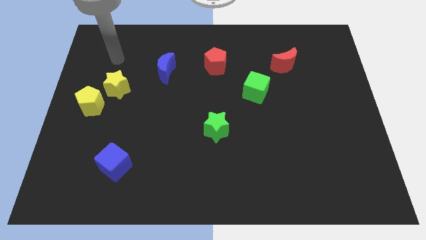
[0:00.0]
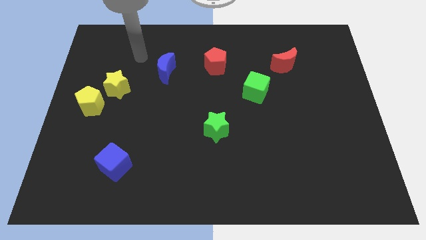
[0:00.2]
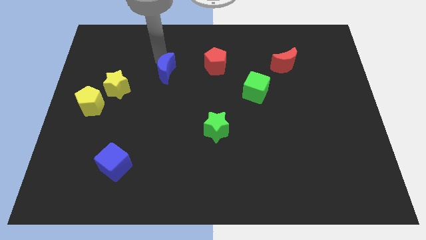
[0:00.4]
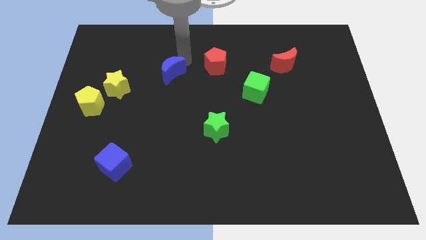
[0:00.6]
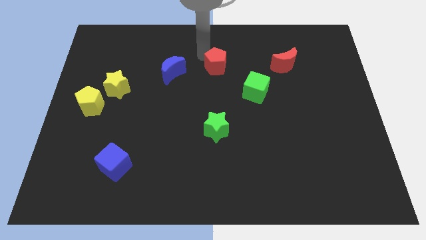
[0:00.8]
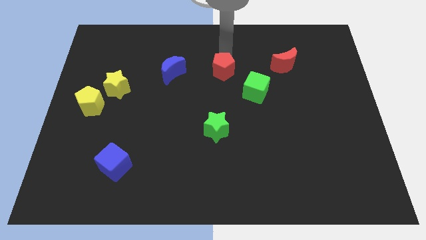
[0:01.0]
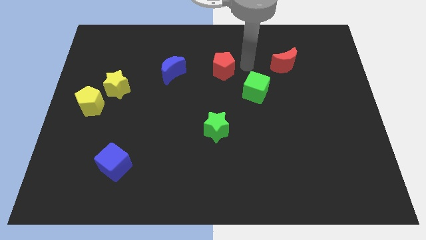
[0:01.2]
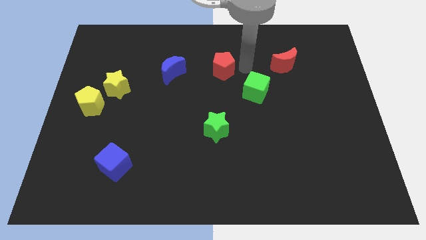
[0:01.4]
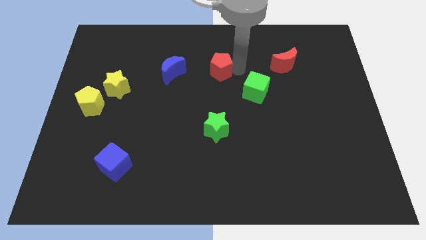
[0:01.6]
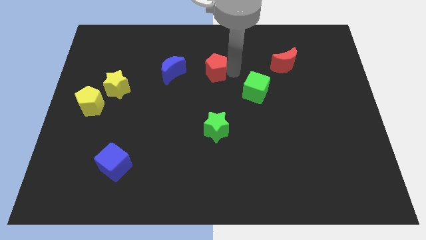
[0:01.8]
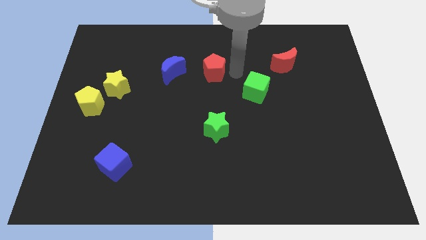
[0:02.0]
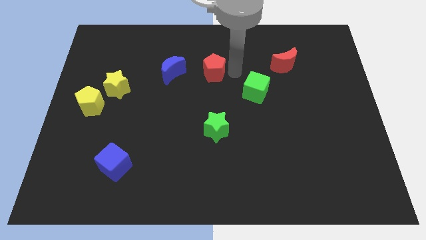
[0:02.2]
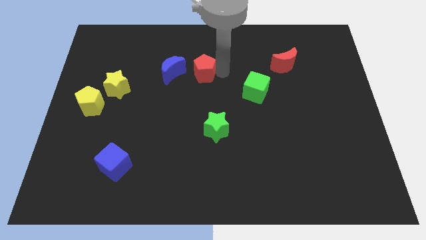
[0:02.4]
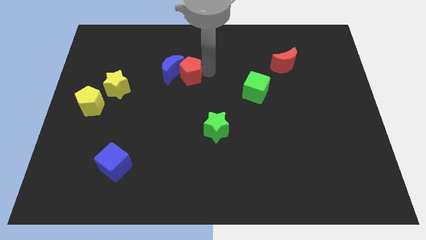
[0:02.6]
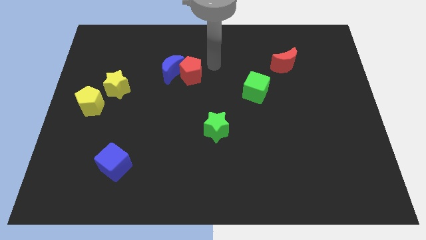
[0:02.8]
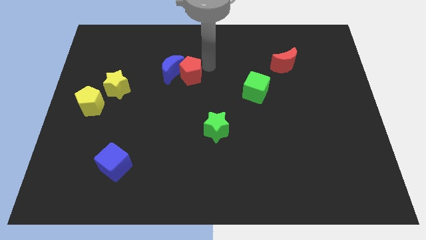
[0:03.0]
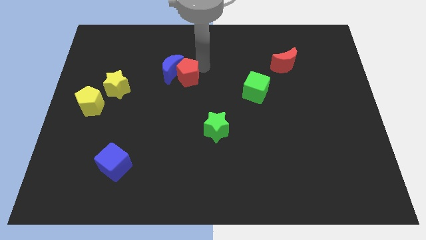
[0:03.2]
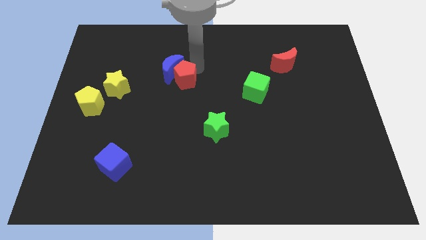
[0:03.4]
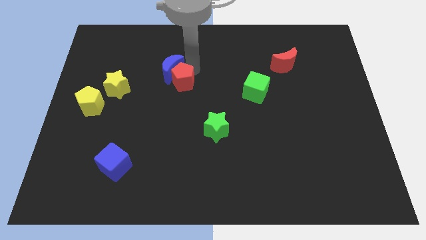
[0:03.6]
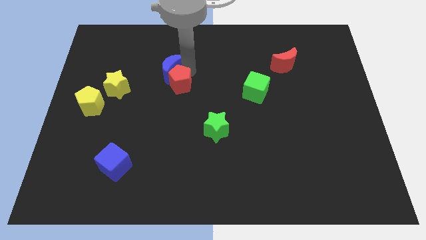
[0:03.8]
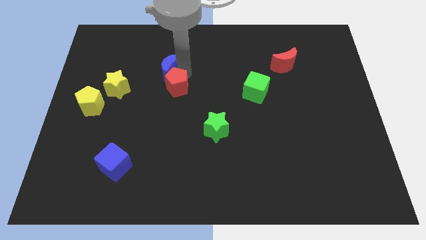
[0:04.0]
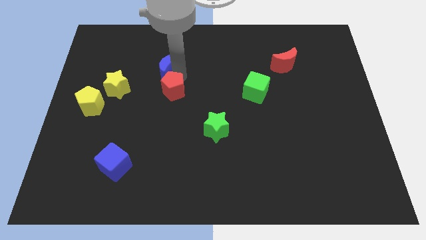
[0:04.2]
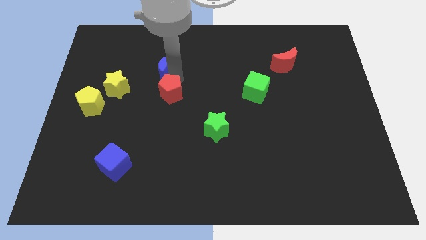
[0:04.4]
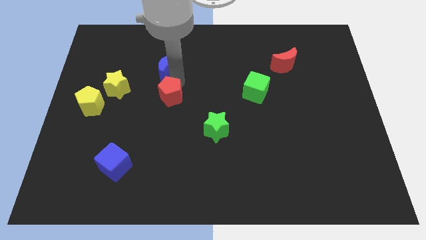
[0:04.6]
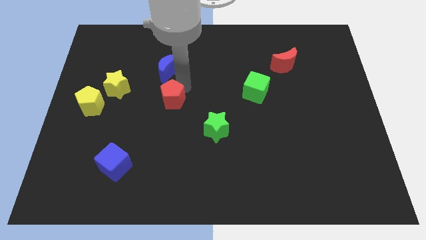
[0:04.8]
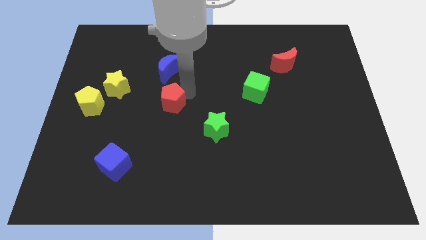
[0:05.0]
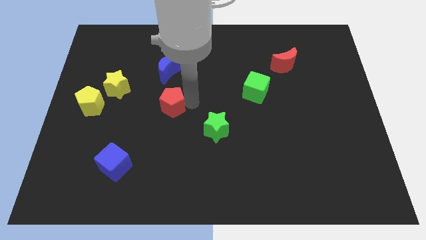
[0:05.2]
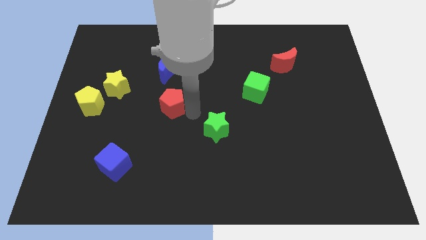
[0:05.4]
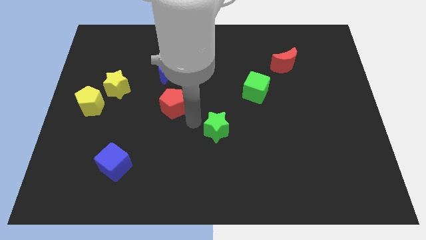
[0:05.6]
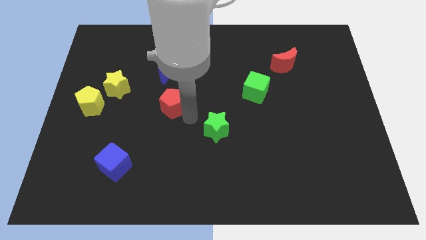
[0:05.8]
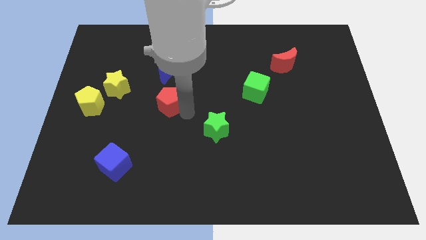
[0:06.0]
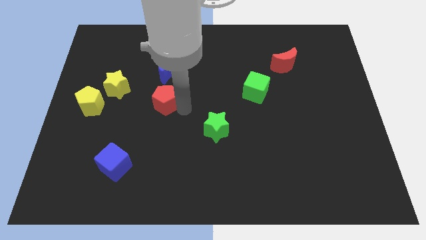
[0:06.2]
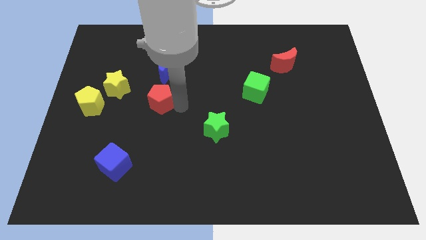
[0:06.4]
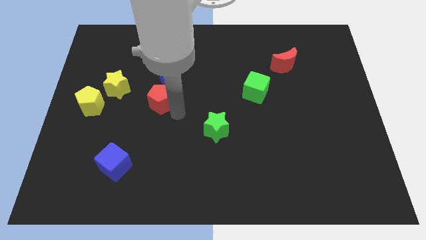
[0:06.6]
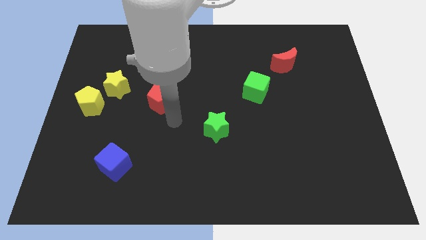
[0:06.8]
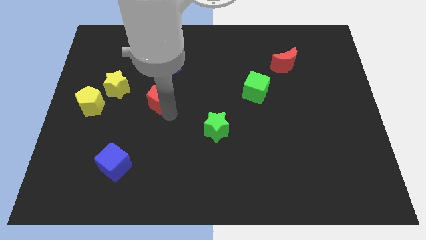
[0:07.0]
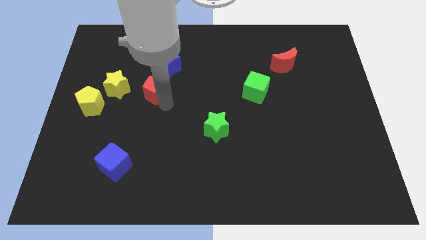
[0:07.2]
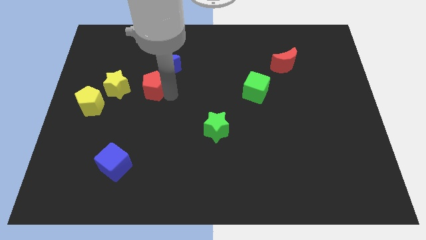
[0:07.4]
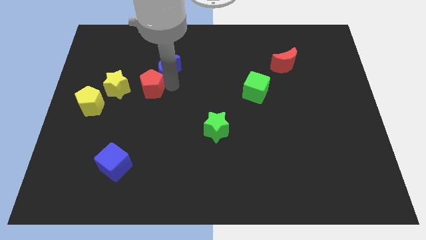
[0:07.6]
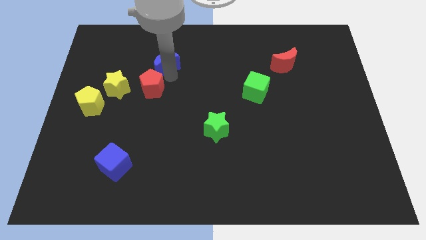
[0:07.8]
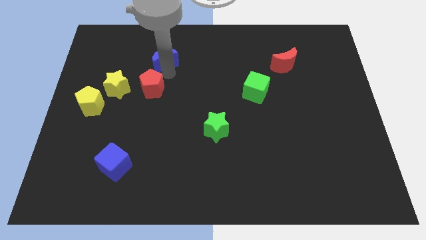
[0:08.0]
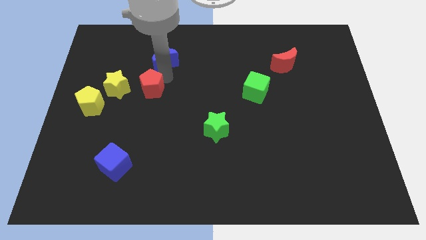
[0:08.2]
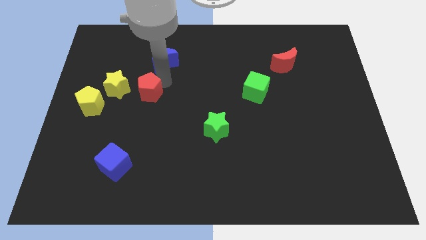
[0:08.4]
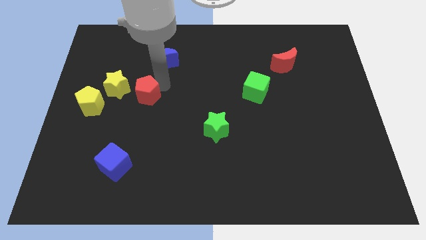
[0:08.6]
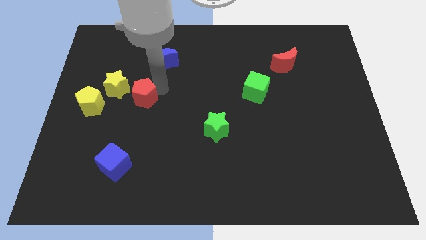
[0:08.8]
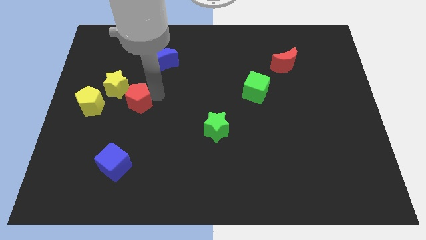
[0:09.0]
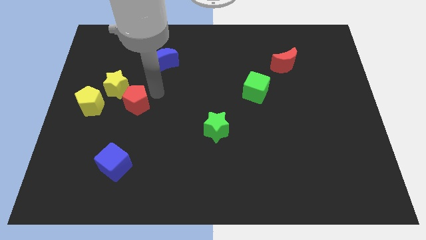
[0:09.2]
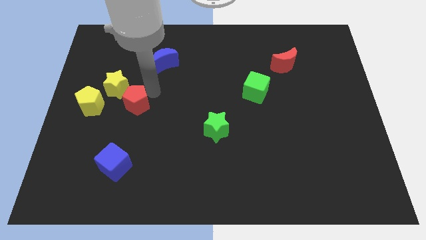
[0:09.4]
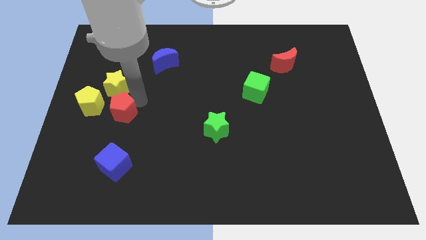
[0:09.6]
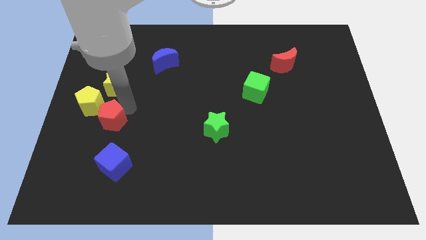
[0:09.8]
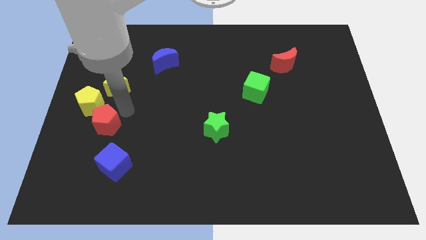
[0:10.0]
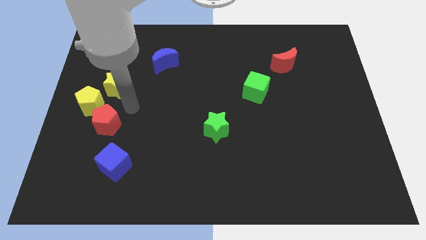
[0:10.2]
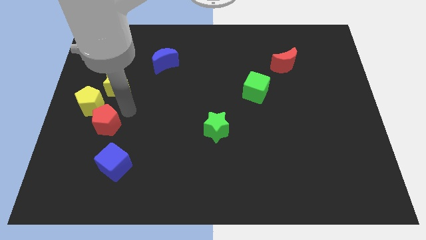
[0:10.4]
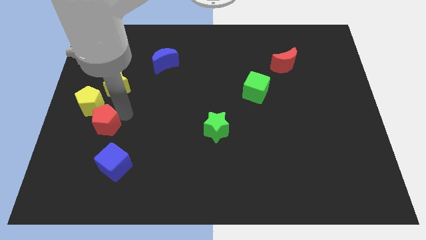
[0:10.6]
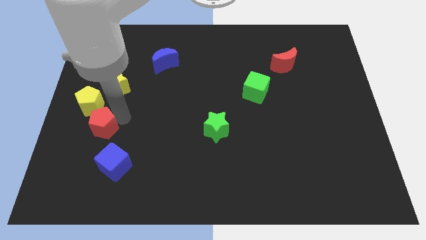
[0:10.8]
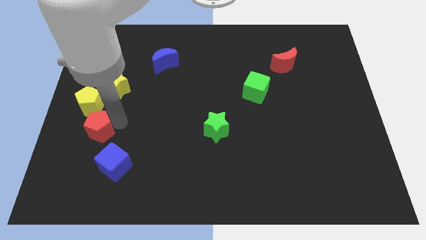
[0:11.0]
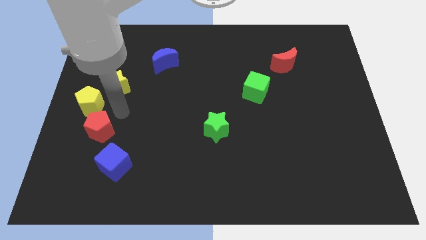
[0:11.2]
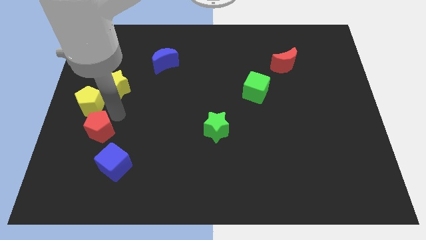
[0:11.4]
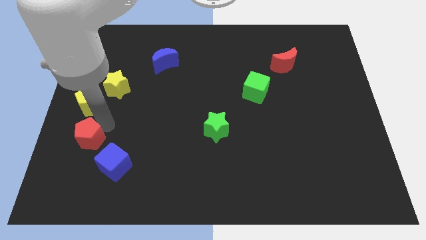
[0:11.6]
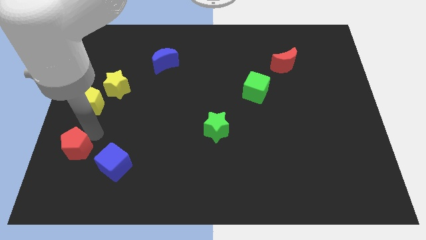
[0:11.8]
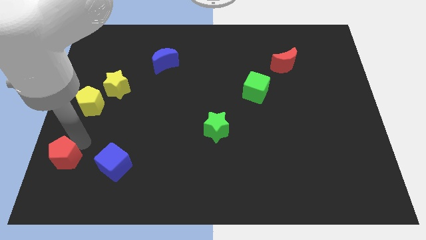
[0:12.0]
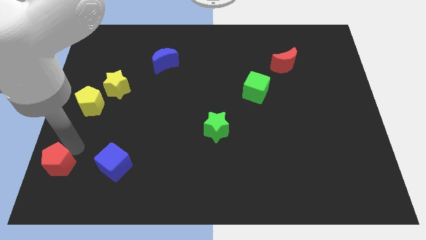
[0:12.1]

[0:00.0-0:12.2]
push the red pentagon to the bottom left of the board
